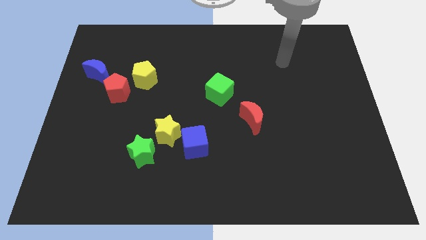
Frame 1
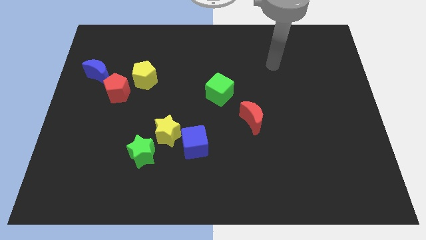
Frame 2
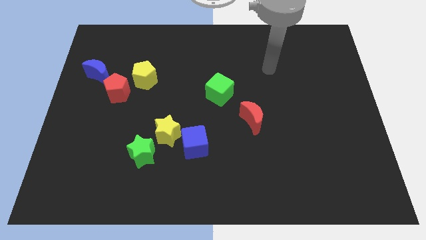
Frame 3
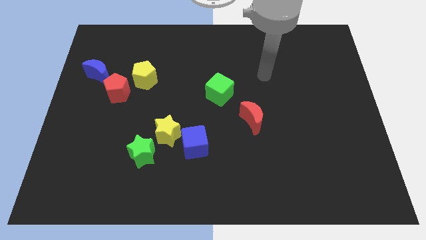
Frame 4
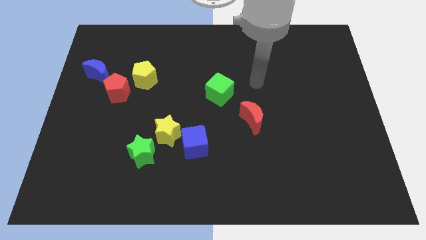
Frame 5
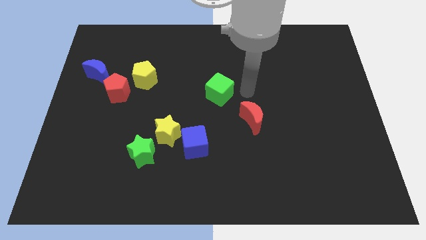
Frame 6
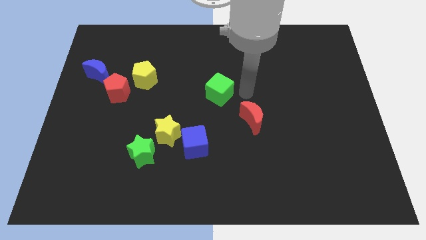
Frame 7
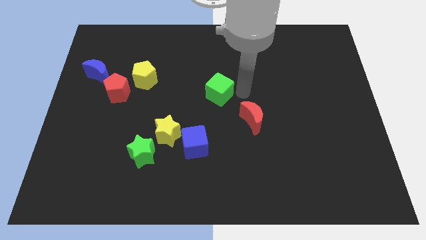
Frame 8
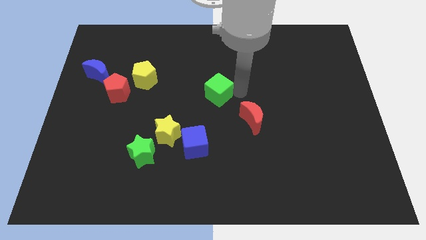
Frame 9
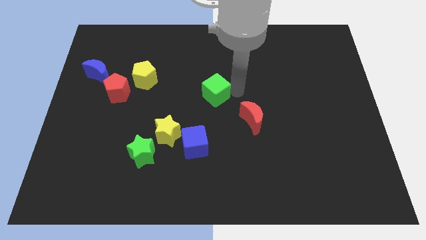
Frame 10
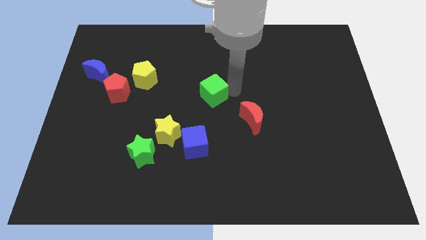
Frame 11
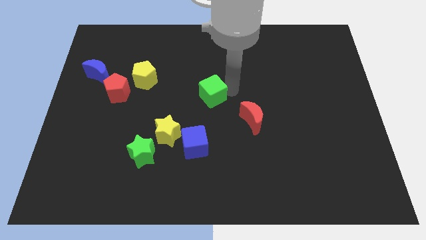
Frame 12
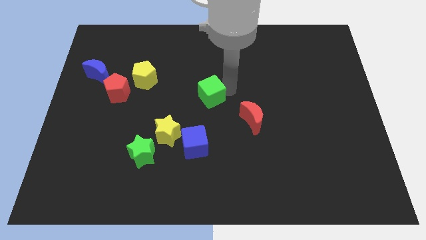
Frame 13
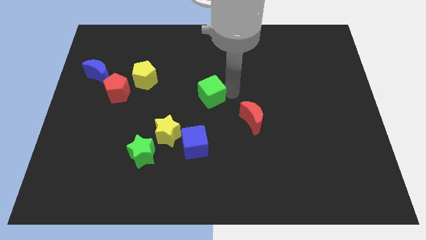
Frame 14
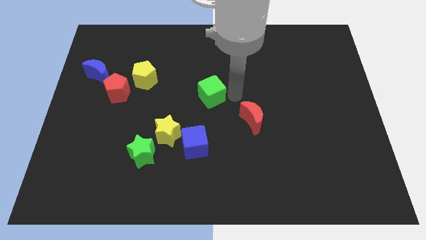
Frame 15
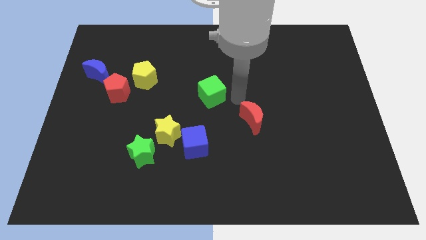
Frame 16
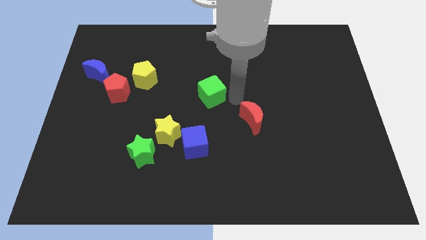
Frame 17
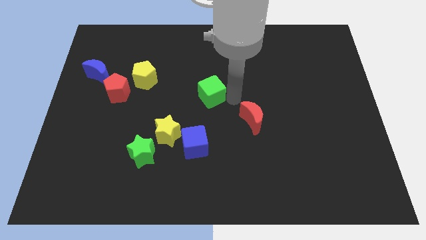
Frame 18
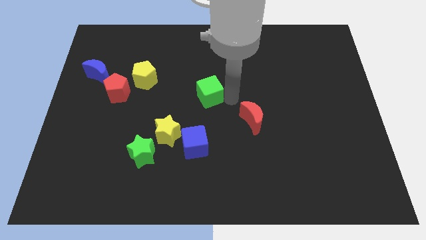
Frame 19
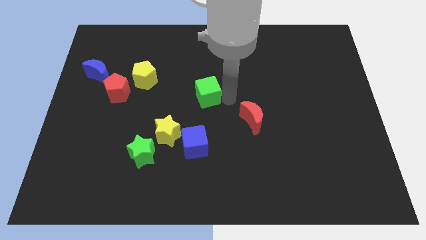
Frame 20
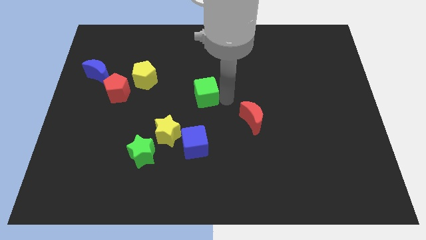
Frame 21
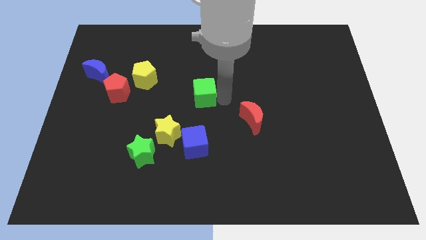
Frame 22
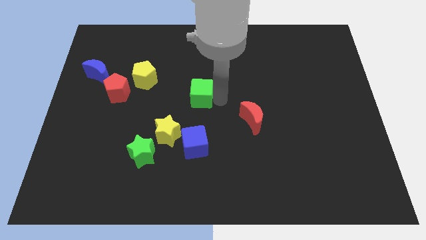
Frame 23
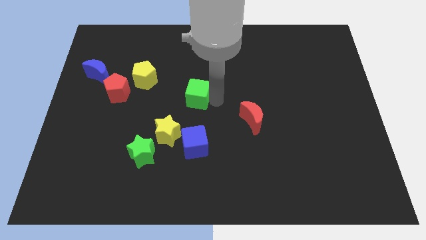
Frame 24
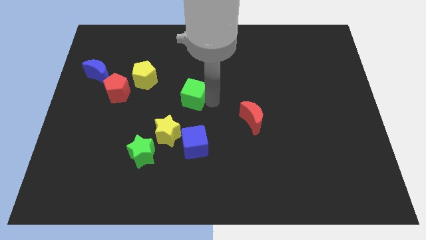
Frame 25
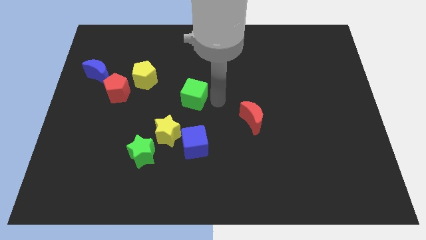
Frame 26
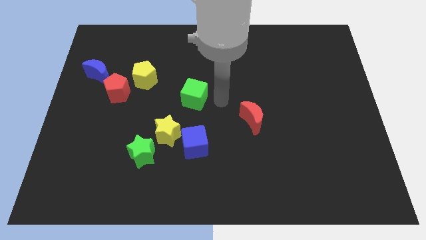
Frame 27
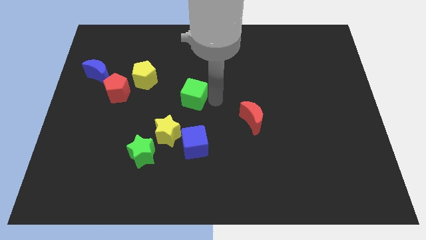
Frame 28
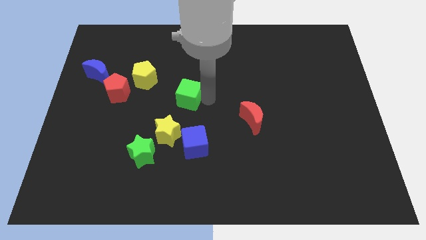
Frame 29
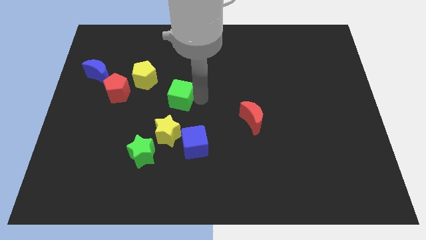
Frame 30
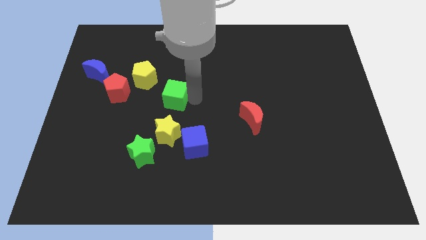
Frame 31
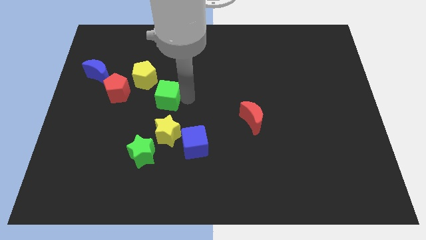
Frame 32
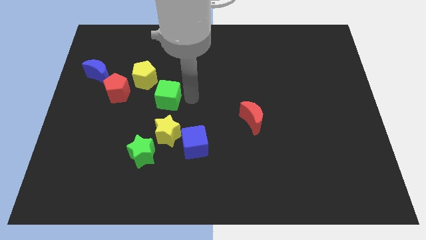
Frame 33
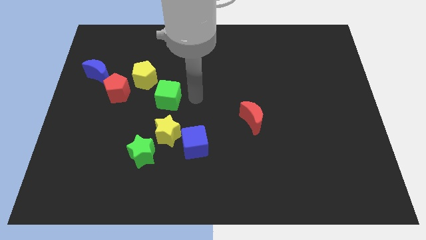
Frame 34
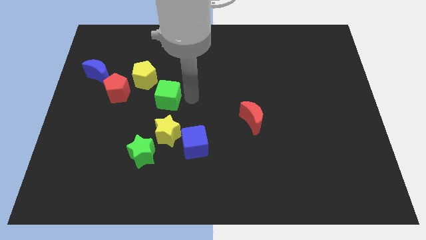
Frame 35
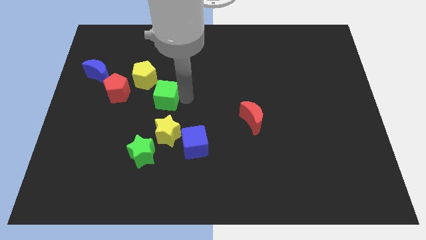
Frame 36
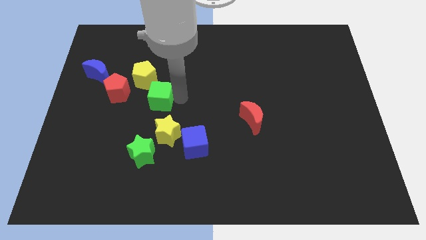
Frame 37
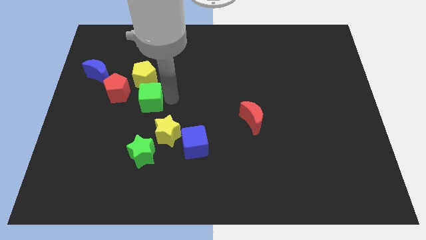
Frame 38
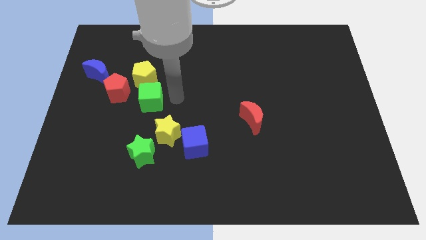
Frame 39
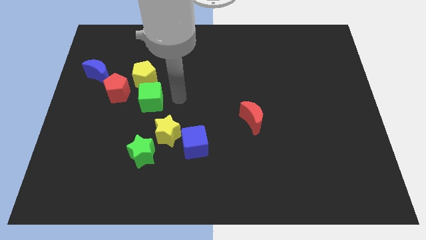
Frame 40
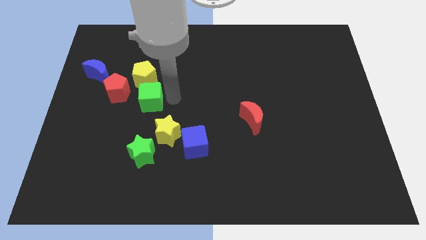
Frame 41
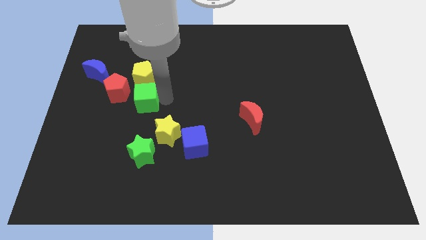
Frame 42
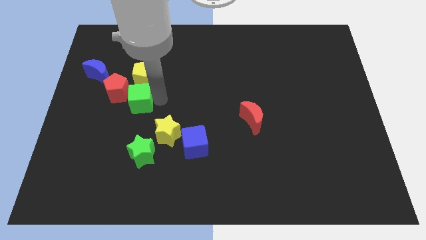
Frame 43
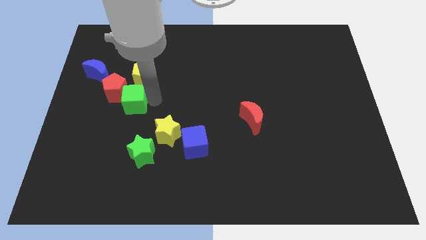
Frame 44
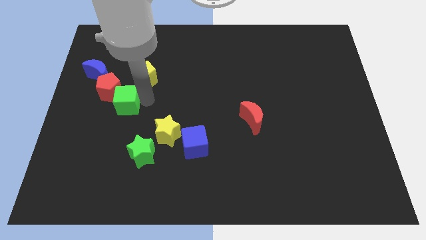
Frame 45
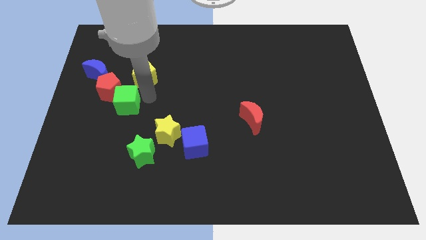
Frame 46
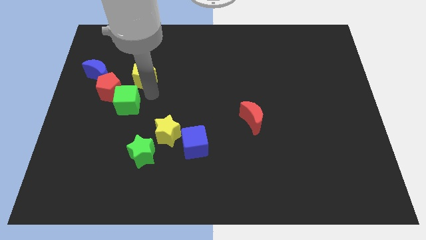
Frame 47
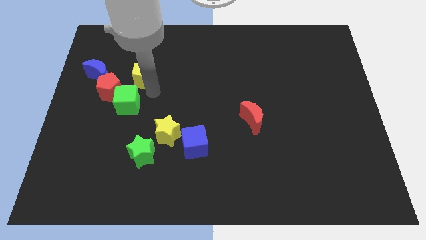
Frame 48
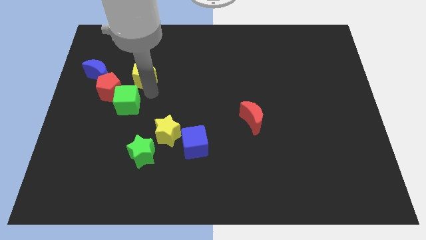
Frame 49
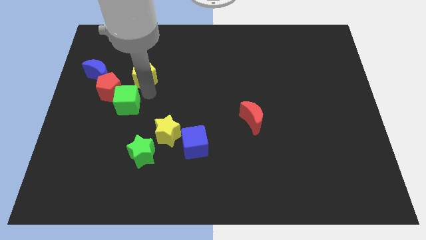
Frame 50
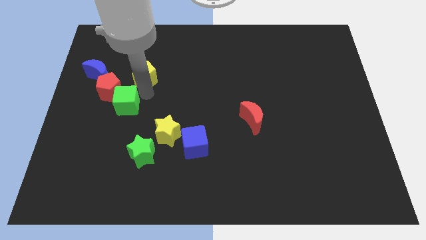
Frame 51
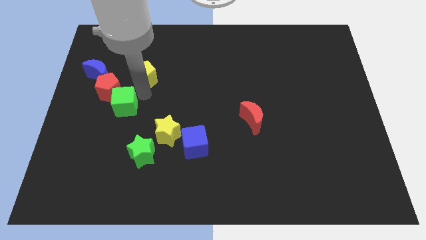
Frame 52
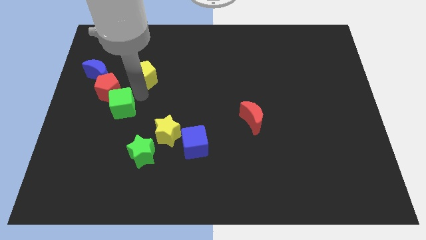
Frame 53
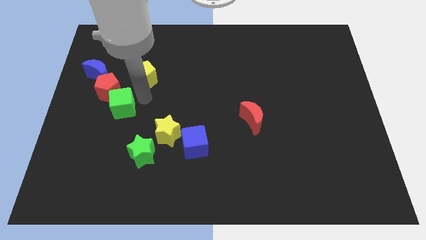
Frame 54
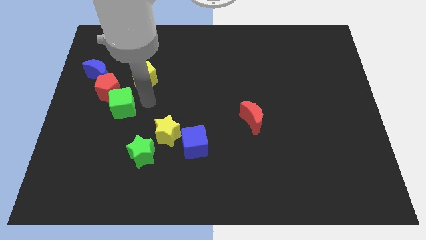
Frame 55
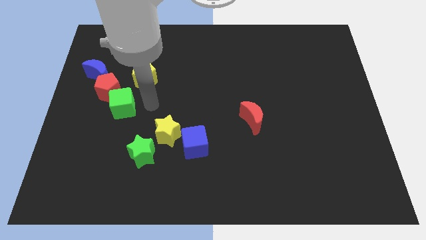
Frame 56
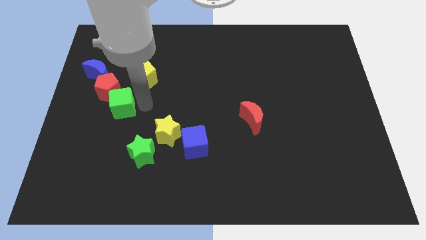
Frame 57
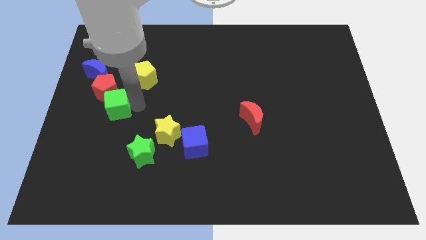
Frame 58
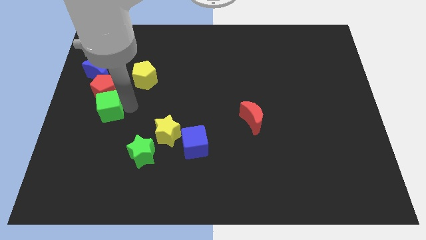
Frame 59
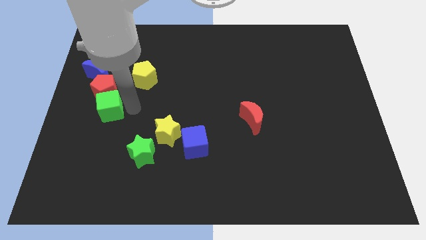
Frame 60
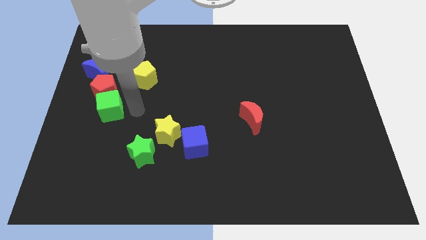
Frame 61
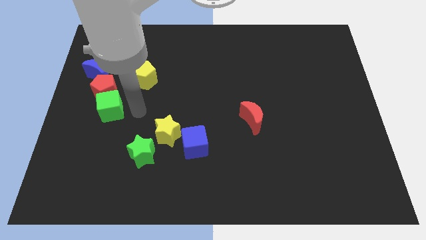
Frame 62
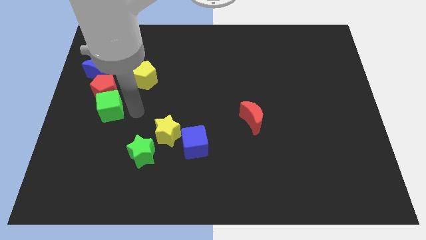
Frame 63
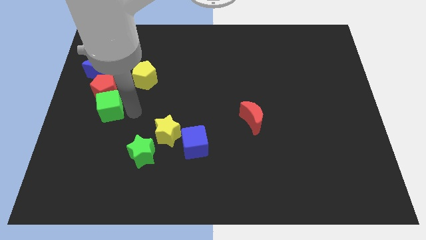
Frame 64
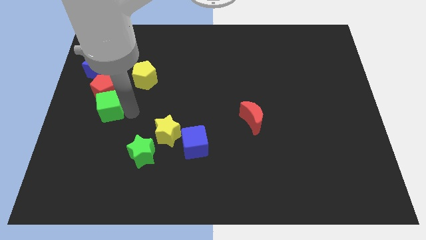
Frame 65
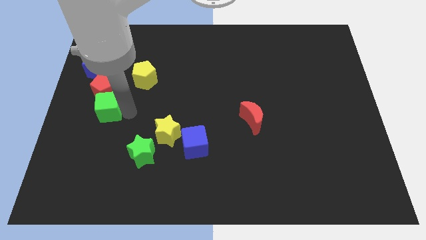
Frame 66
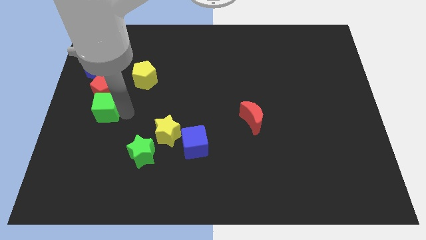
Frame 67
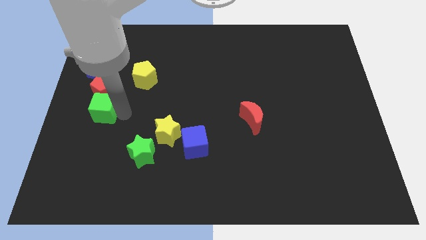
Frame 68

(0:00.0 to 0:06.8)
push the green cube to the left side
